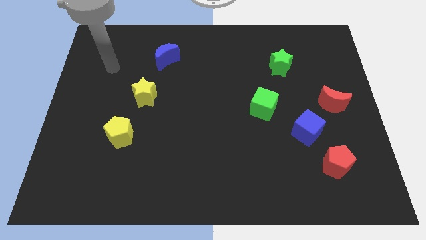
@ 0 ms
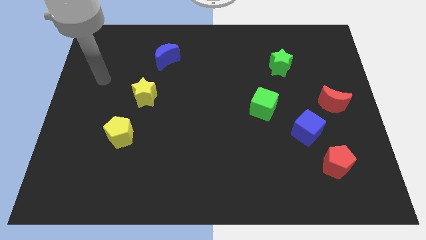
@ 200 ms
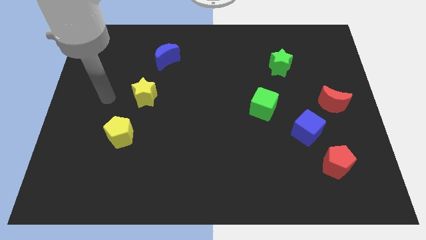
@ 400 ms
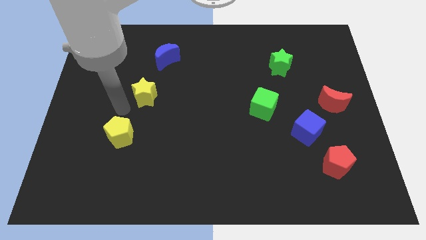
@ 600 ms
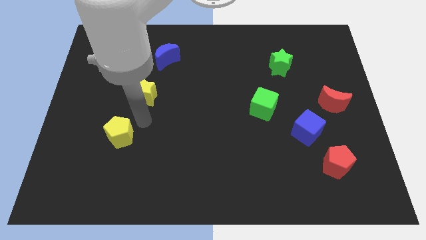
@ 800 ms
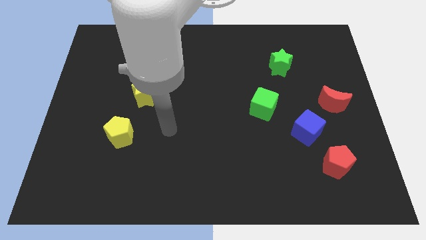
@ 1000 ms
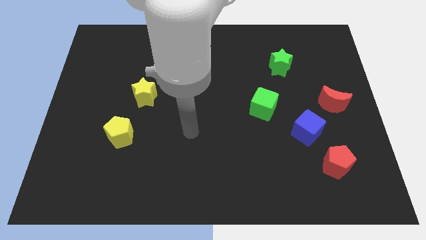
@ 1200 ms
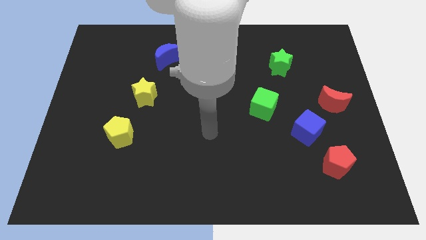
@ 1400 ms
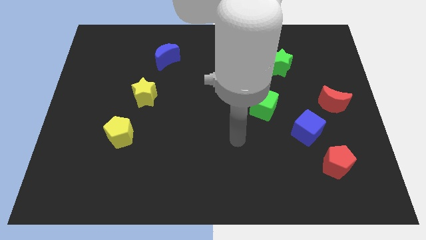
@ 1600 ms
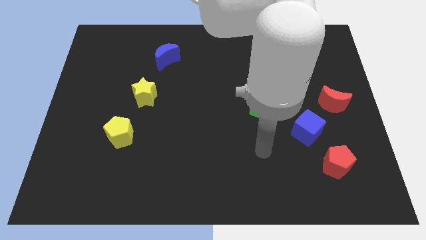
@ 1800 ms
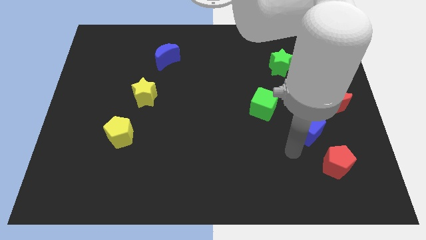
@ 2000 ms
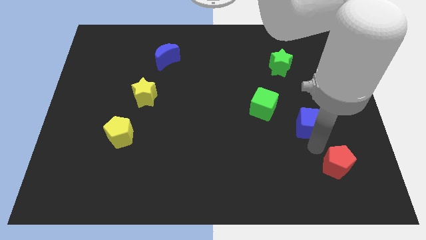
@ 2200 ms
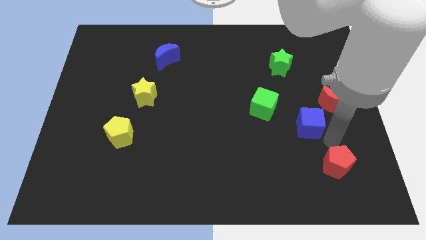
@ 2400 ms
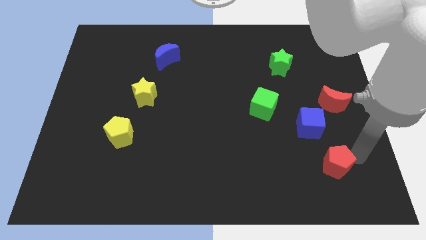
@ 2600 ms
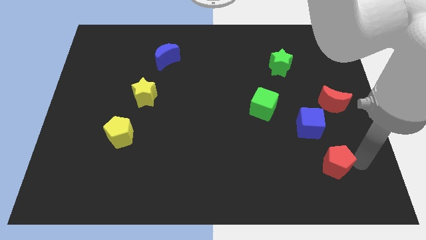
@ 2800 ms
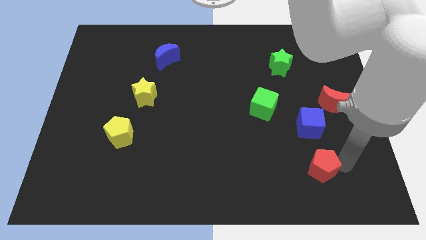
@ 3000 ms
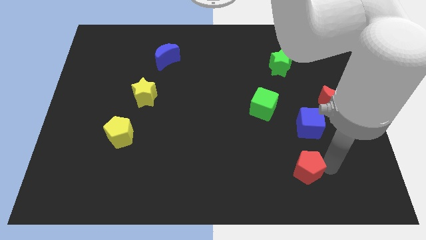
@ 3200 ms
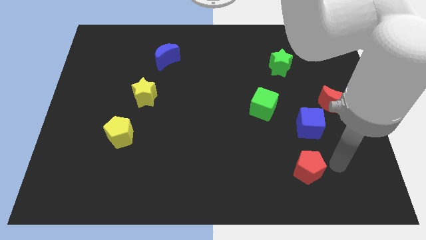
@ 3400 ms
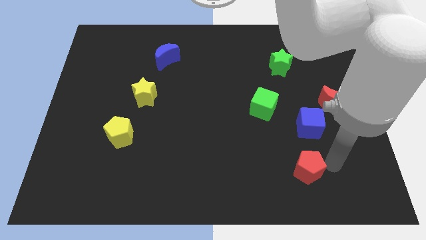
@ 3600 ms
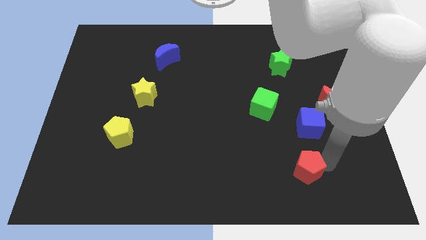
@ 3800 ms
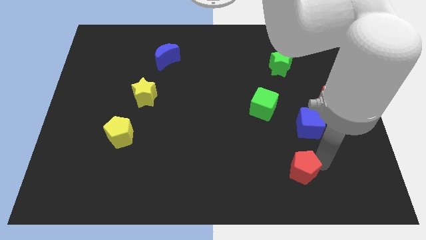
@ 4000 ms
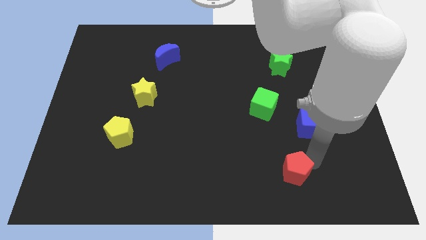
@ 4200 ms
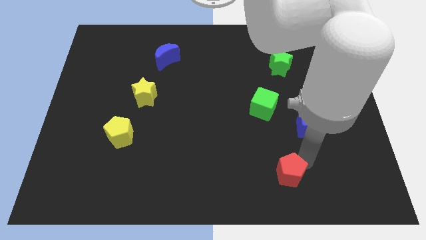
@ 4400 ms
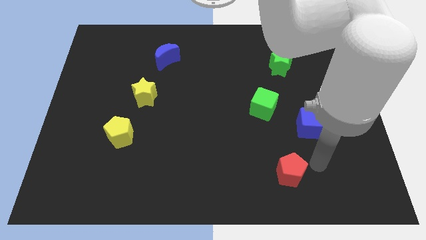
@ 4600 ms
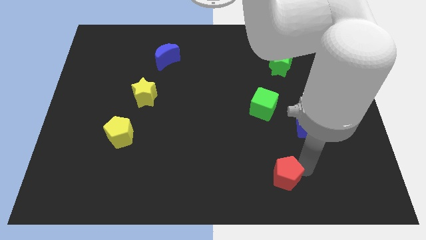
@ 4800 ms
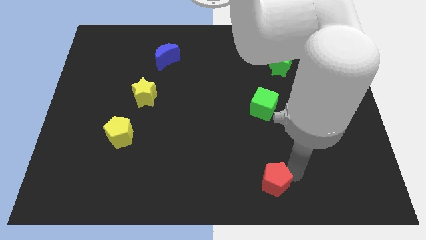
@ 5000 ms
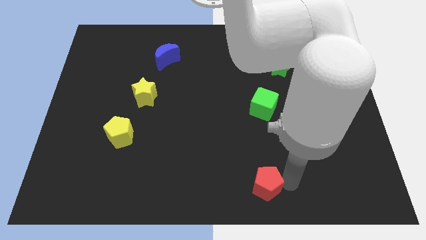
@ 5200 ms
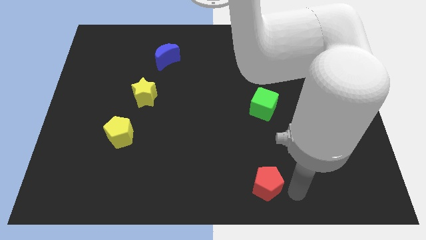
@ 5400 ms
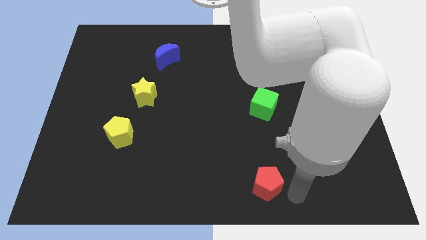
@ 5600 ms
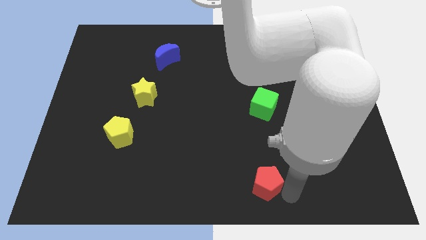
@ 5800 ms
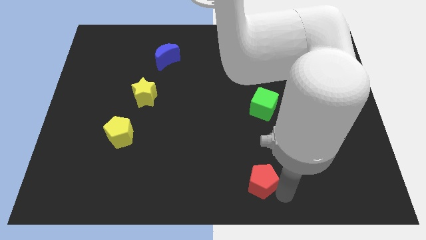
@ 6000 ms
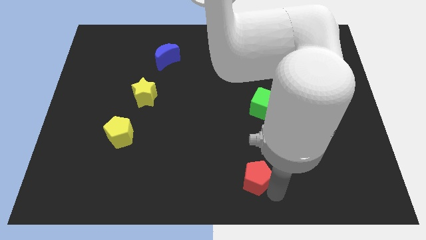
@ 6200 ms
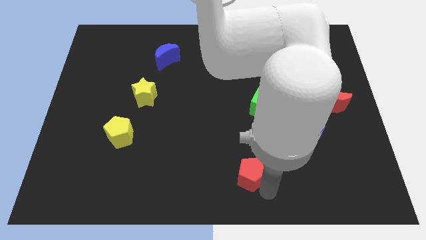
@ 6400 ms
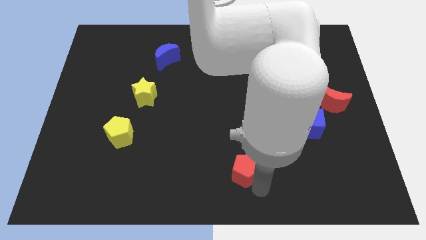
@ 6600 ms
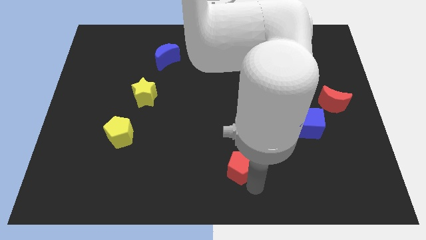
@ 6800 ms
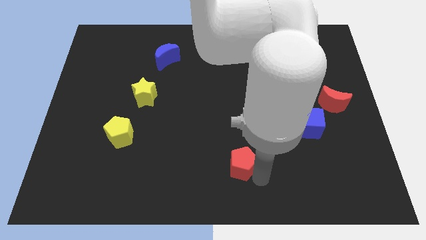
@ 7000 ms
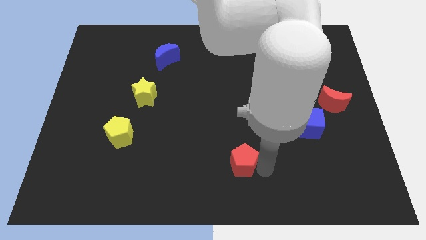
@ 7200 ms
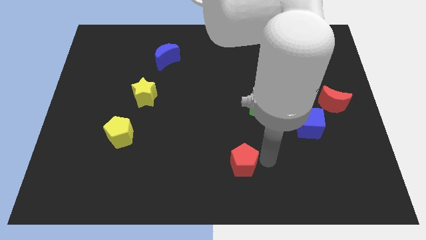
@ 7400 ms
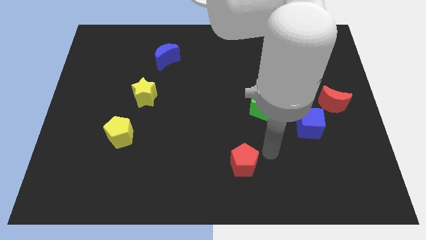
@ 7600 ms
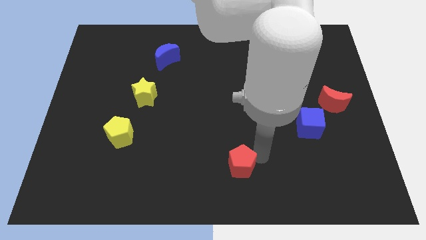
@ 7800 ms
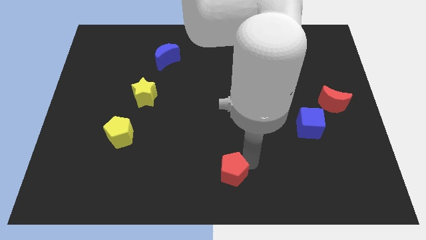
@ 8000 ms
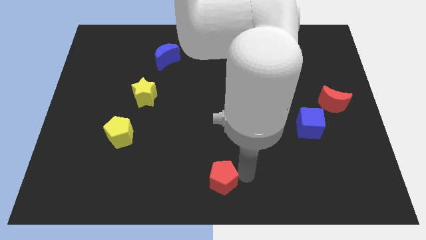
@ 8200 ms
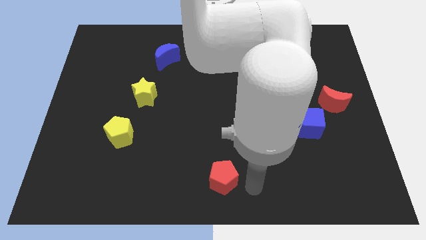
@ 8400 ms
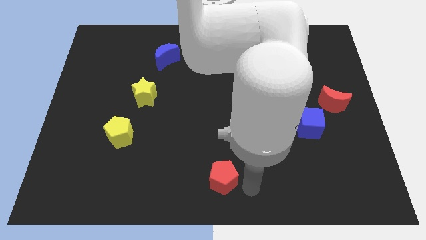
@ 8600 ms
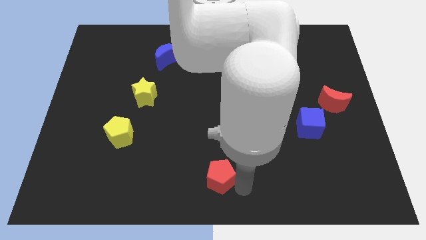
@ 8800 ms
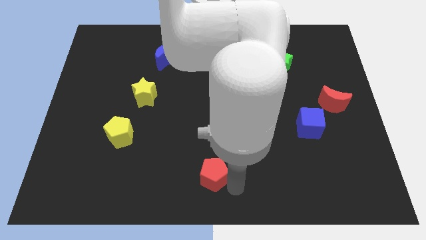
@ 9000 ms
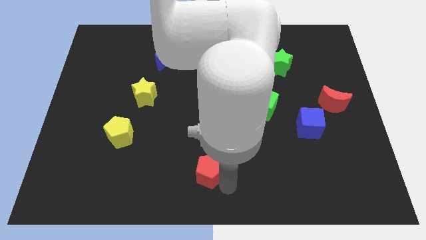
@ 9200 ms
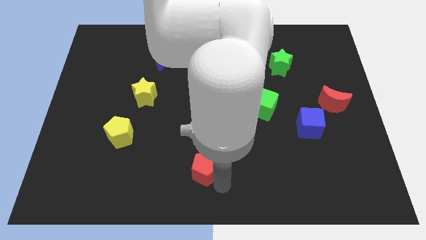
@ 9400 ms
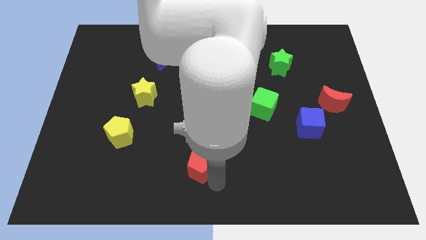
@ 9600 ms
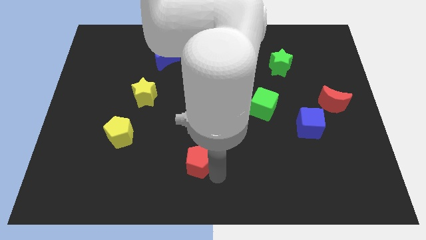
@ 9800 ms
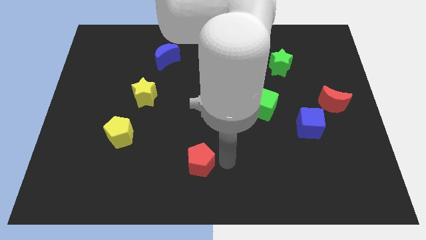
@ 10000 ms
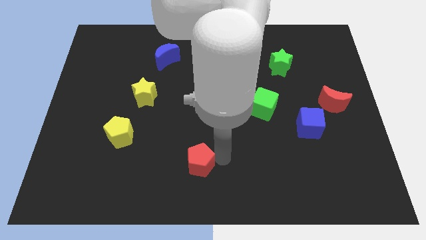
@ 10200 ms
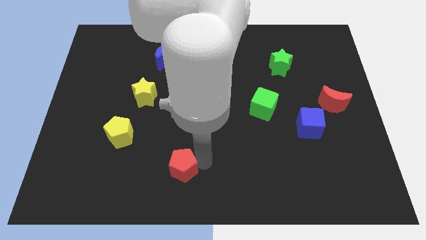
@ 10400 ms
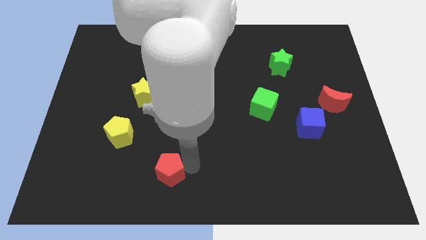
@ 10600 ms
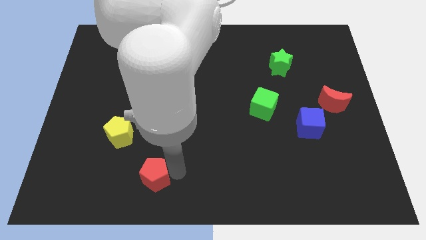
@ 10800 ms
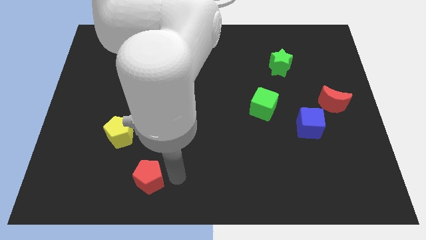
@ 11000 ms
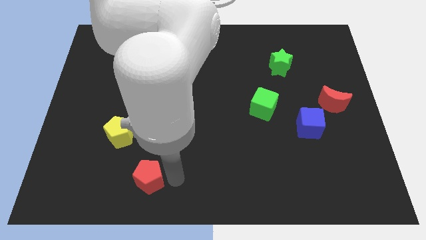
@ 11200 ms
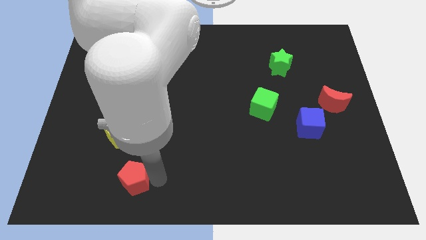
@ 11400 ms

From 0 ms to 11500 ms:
slide the red pentagon to the bottom side of the yellow pentagon
